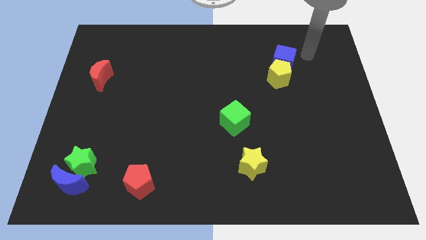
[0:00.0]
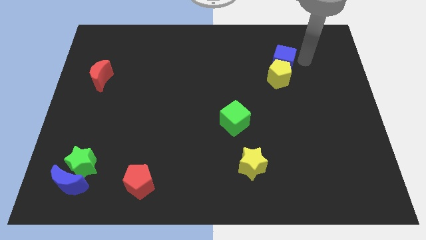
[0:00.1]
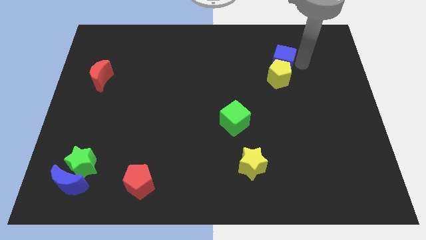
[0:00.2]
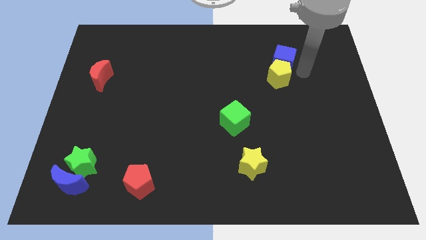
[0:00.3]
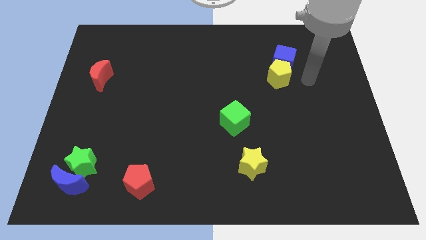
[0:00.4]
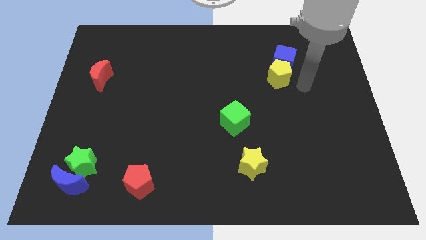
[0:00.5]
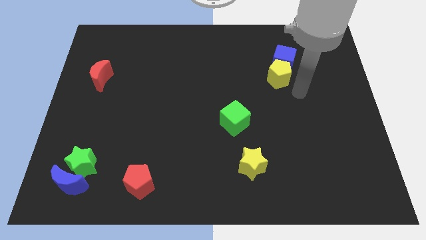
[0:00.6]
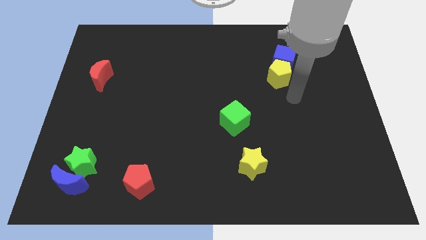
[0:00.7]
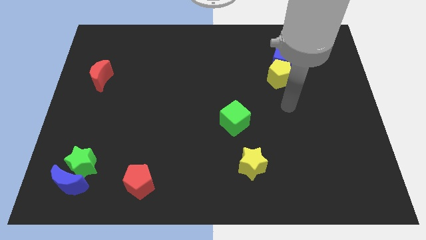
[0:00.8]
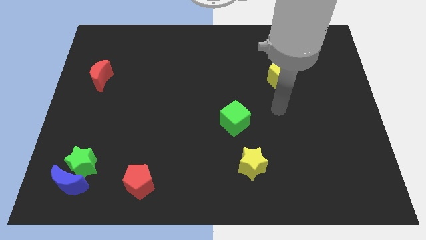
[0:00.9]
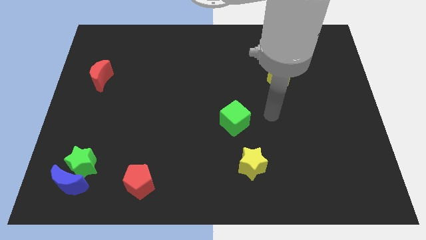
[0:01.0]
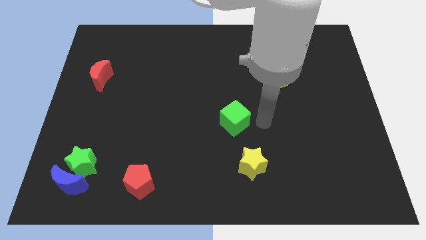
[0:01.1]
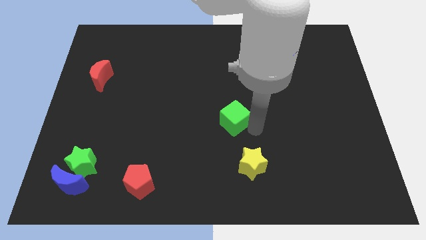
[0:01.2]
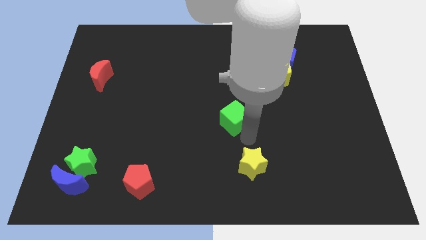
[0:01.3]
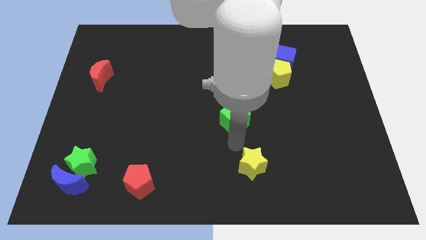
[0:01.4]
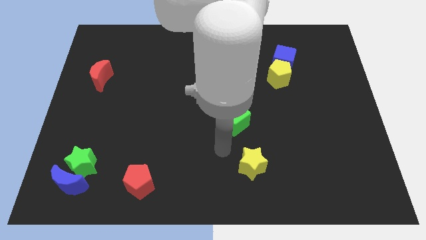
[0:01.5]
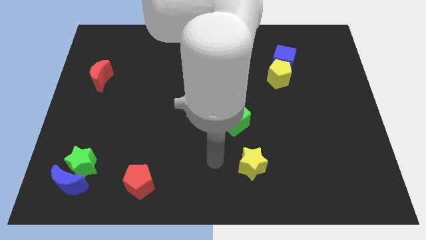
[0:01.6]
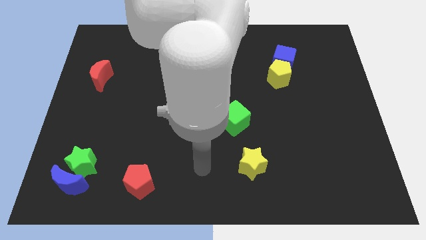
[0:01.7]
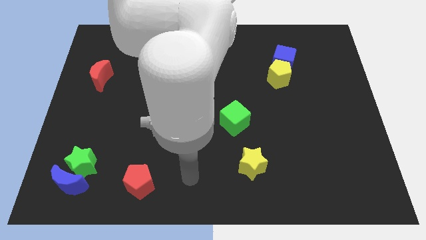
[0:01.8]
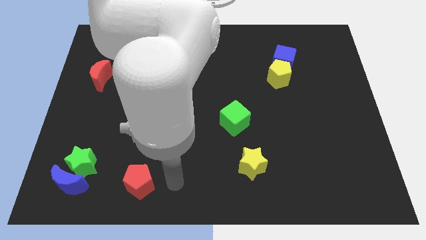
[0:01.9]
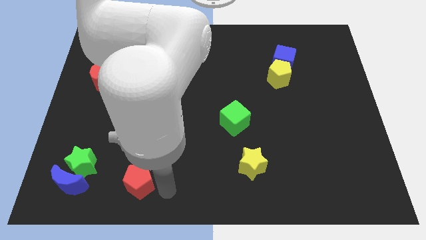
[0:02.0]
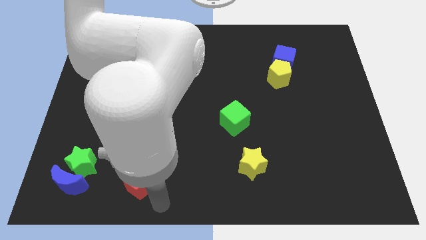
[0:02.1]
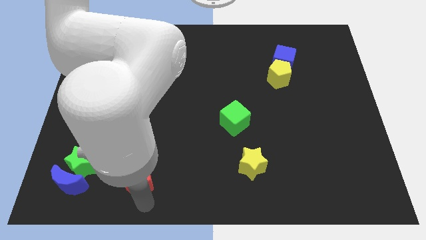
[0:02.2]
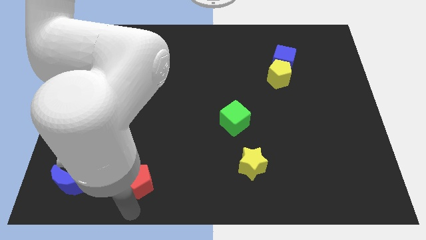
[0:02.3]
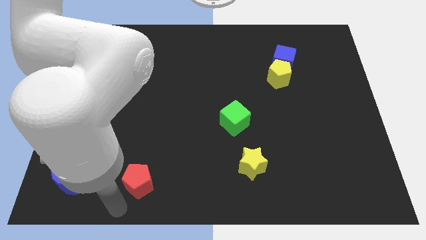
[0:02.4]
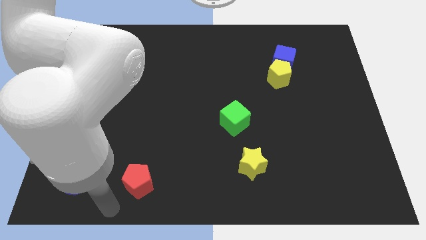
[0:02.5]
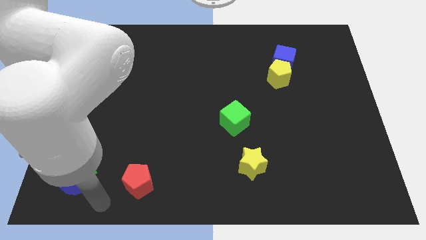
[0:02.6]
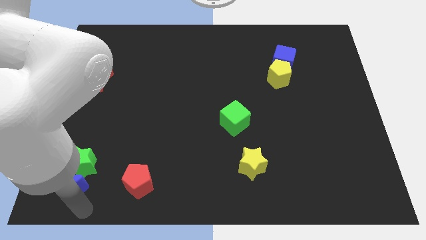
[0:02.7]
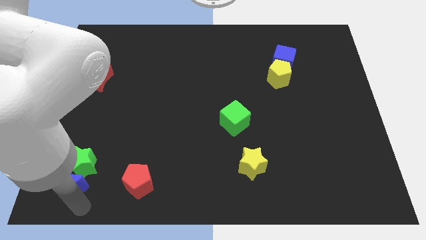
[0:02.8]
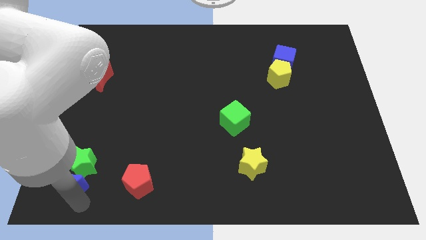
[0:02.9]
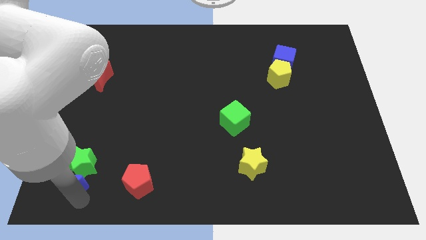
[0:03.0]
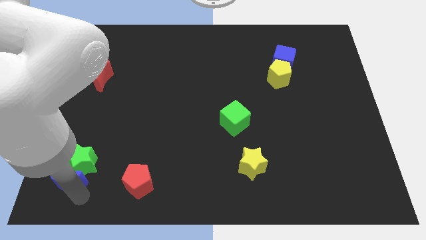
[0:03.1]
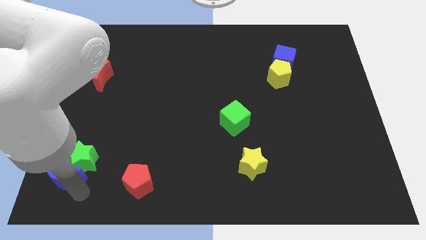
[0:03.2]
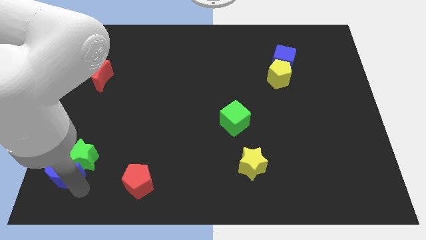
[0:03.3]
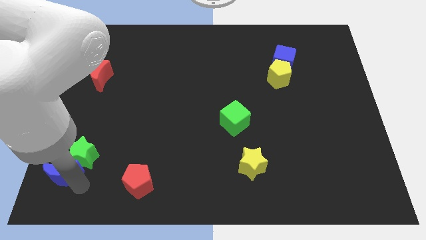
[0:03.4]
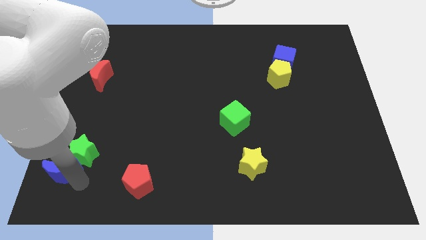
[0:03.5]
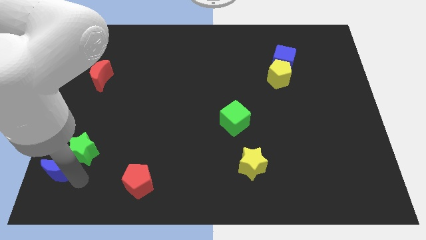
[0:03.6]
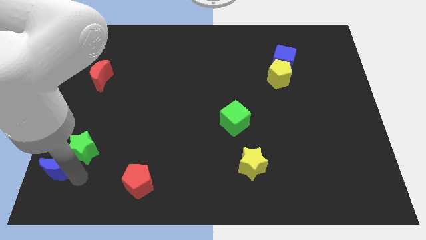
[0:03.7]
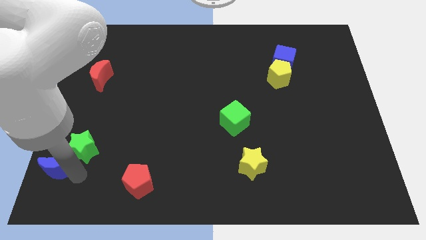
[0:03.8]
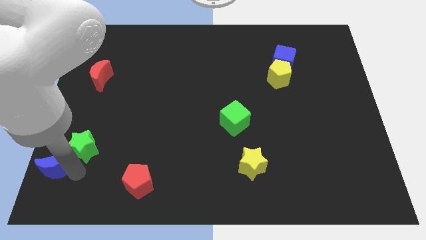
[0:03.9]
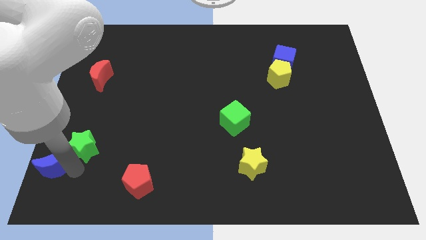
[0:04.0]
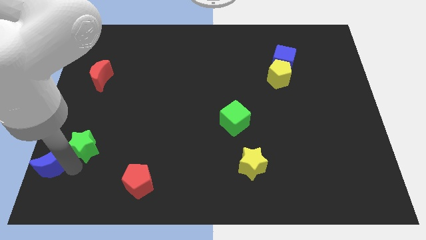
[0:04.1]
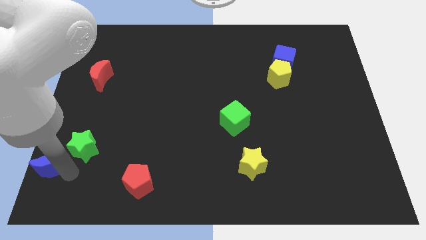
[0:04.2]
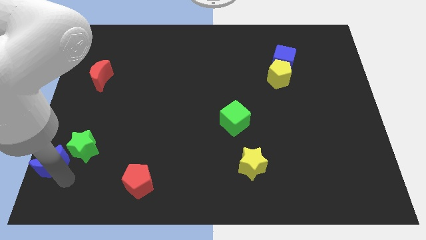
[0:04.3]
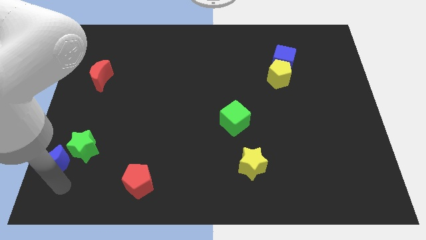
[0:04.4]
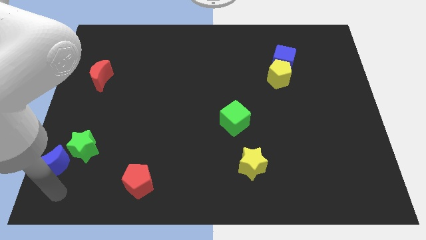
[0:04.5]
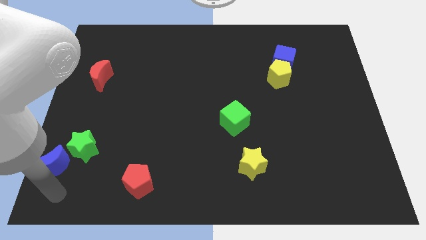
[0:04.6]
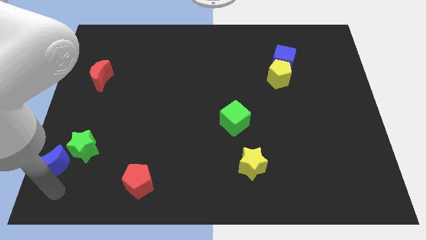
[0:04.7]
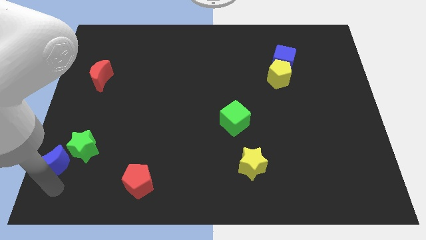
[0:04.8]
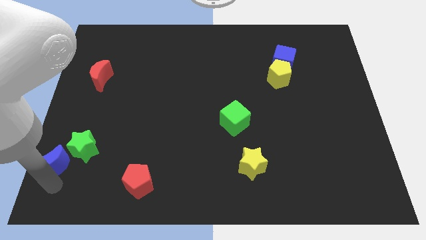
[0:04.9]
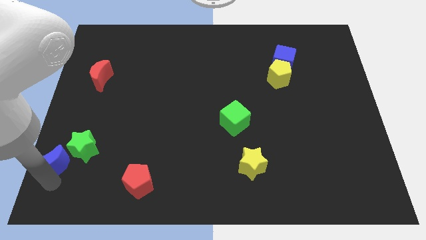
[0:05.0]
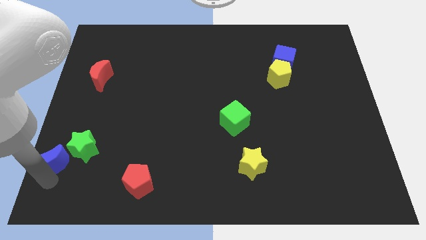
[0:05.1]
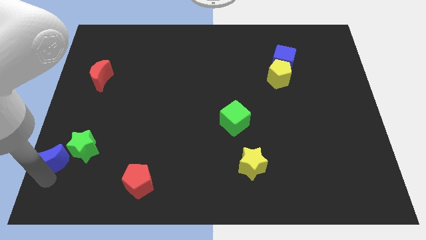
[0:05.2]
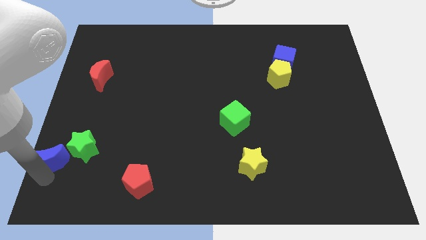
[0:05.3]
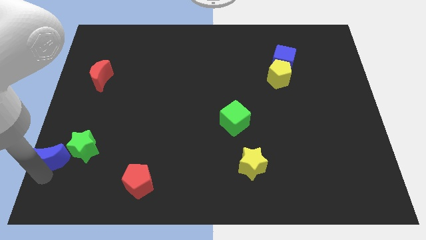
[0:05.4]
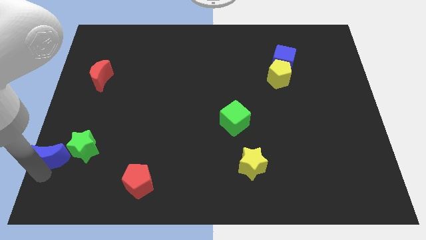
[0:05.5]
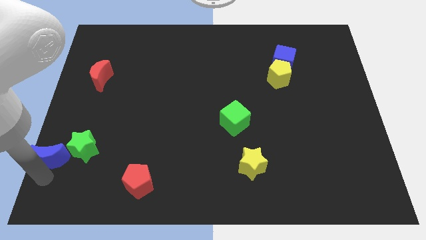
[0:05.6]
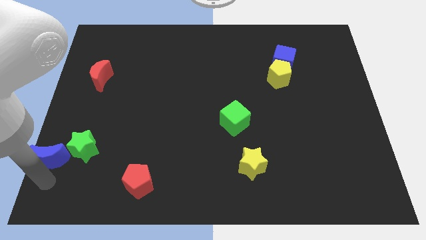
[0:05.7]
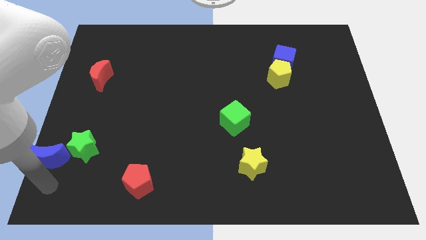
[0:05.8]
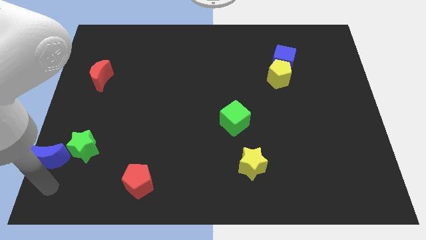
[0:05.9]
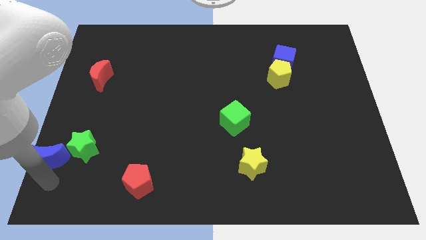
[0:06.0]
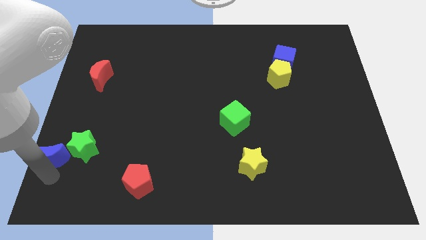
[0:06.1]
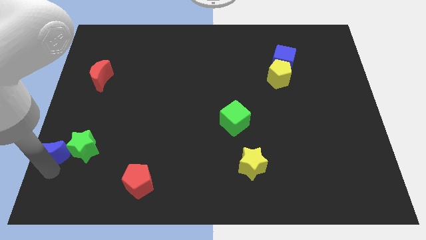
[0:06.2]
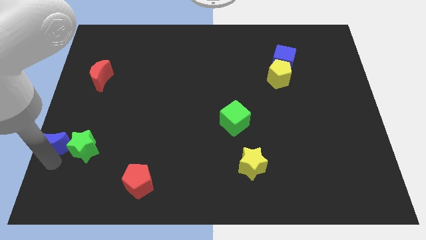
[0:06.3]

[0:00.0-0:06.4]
put the blue moon to the center left
